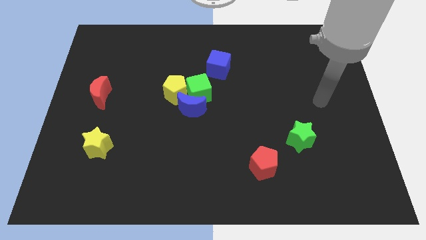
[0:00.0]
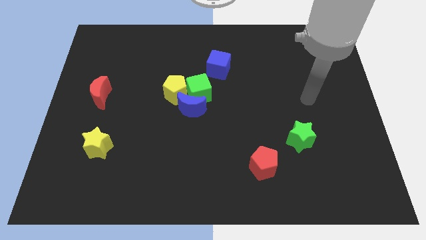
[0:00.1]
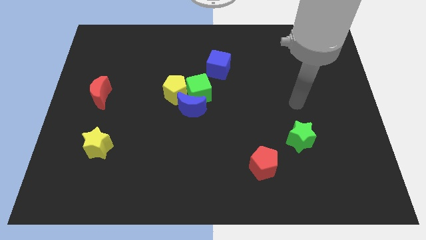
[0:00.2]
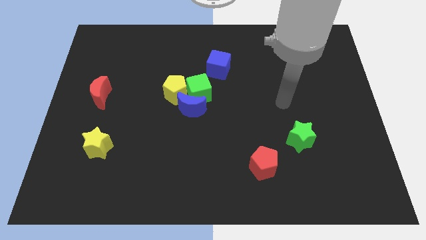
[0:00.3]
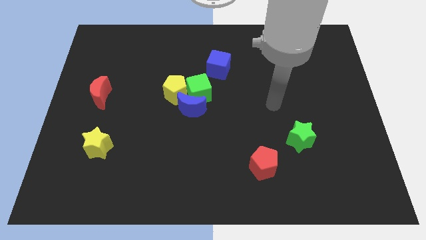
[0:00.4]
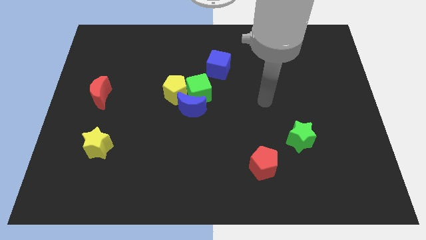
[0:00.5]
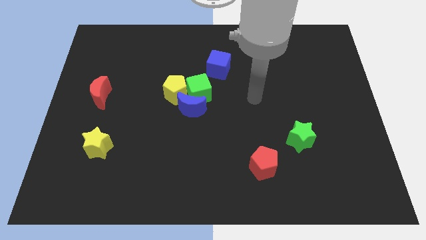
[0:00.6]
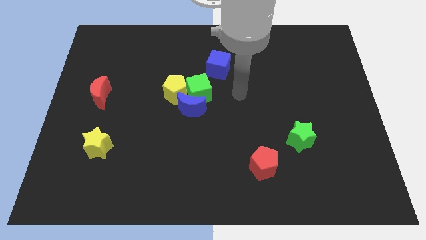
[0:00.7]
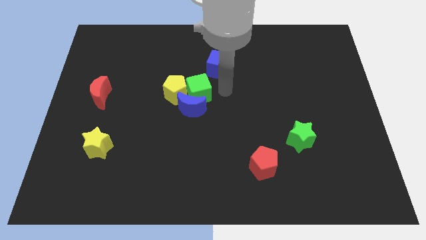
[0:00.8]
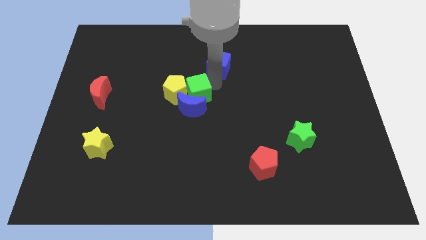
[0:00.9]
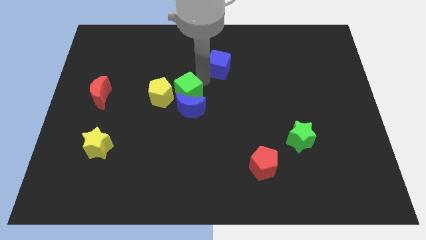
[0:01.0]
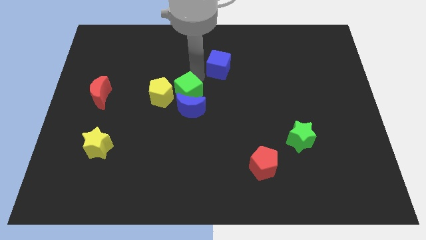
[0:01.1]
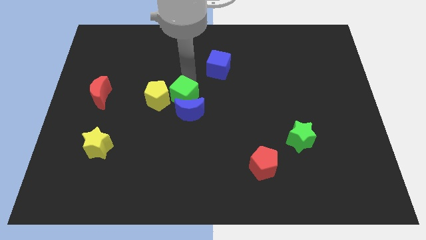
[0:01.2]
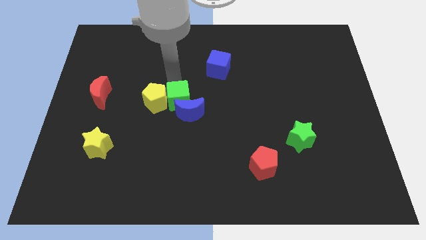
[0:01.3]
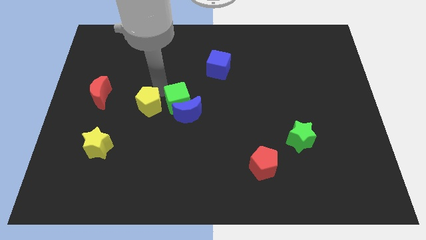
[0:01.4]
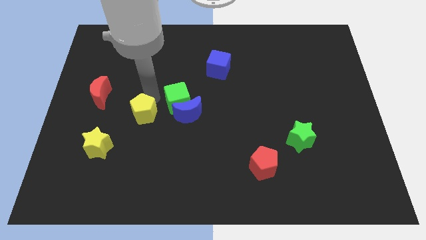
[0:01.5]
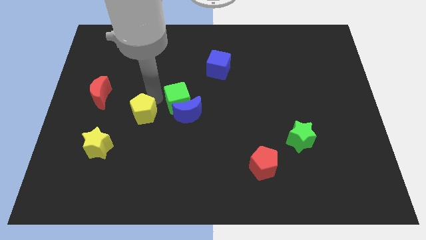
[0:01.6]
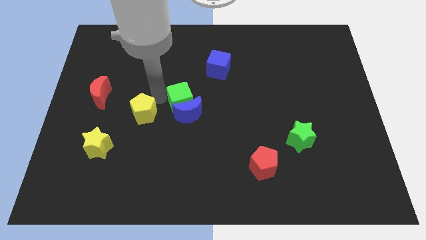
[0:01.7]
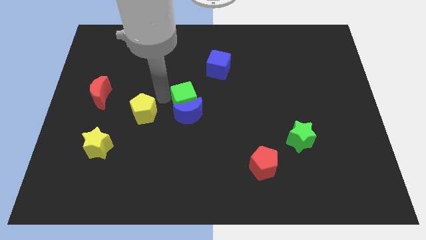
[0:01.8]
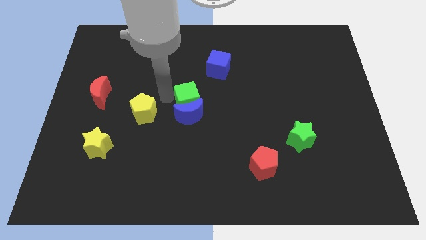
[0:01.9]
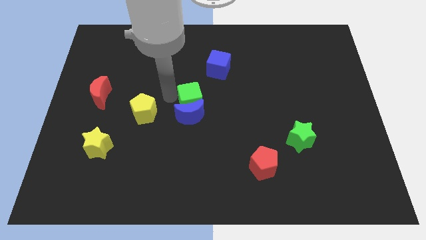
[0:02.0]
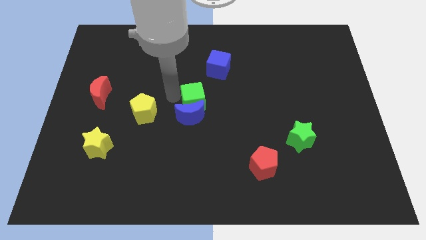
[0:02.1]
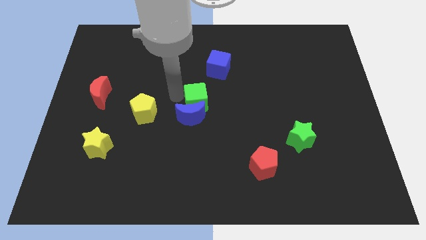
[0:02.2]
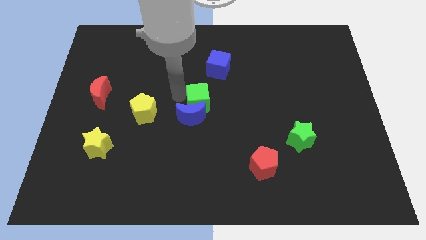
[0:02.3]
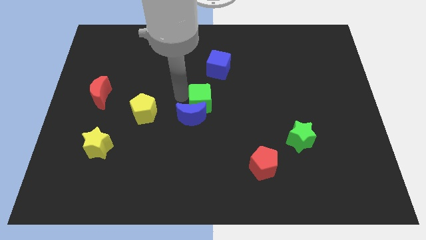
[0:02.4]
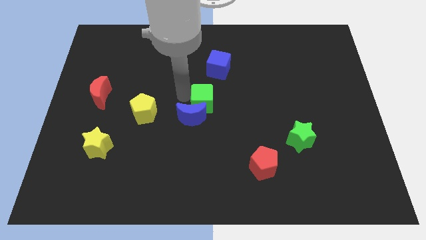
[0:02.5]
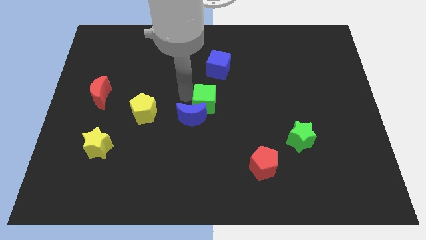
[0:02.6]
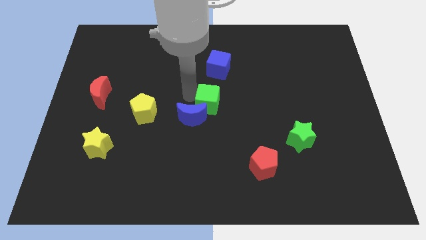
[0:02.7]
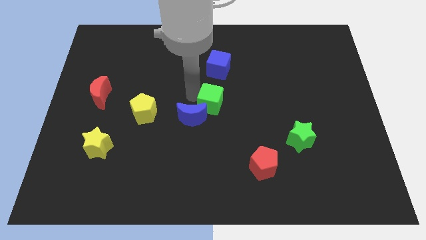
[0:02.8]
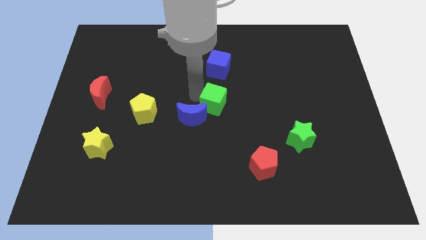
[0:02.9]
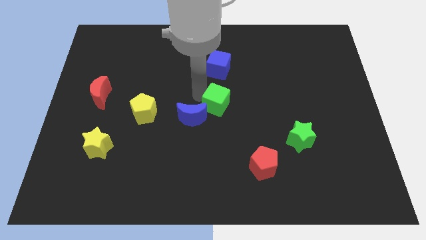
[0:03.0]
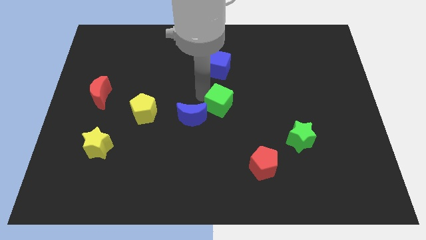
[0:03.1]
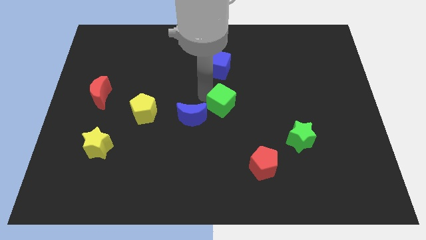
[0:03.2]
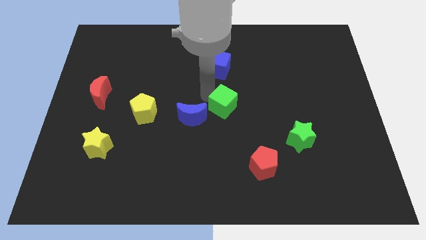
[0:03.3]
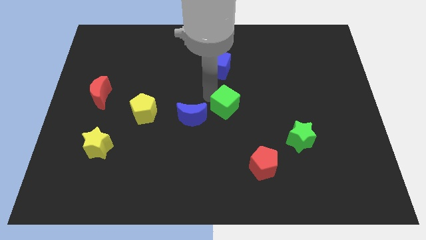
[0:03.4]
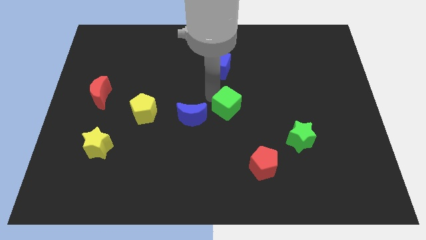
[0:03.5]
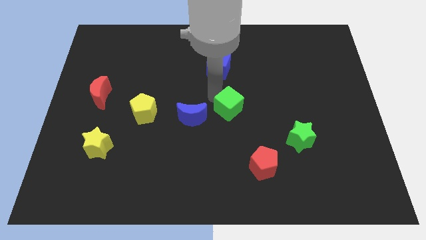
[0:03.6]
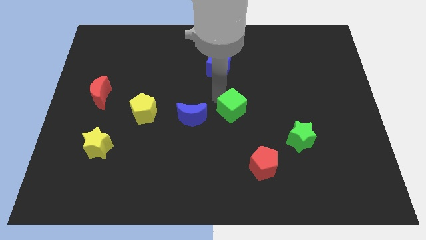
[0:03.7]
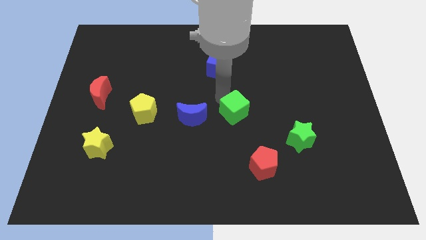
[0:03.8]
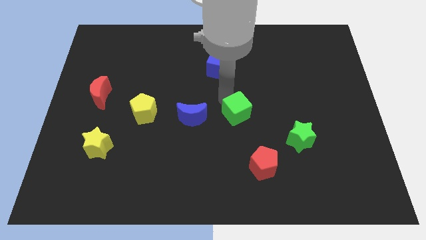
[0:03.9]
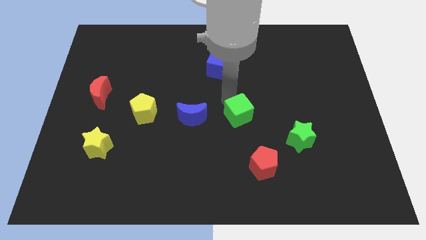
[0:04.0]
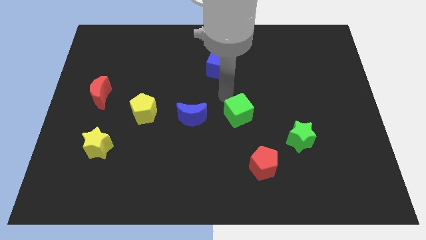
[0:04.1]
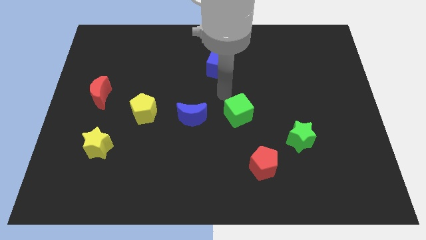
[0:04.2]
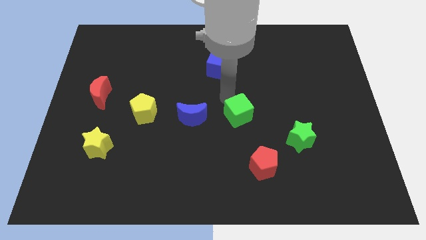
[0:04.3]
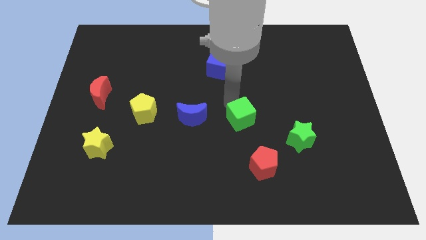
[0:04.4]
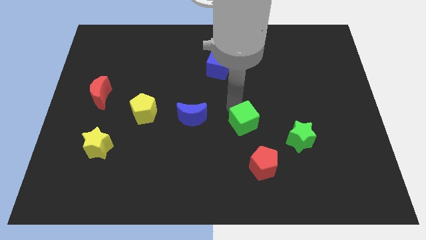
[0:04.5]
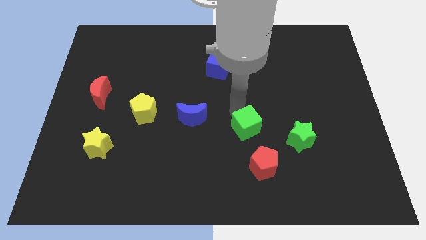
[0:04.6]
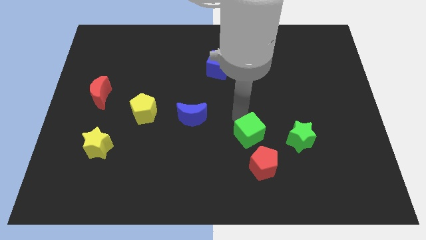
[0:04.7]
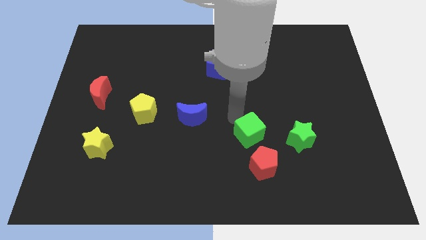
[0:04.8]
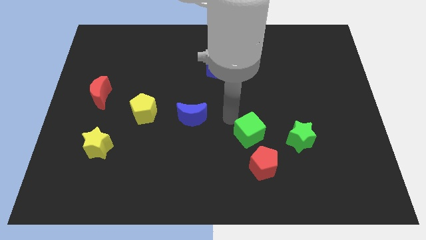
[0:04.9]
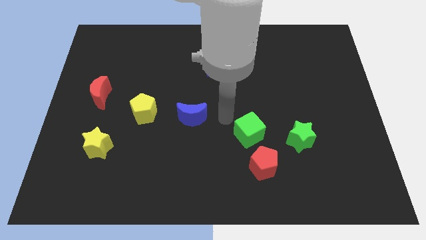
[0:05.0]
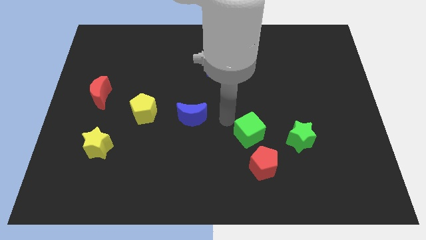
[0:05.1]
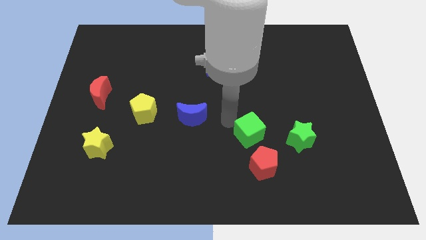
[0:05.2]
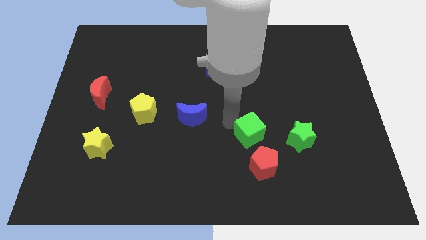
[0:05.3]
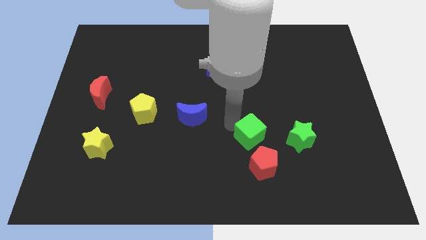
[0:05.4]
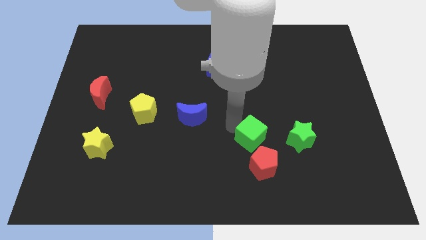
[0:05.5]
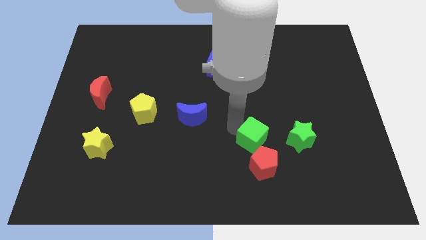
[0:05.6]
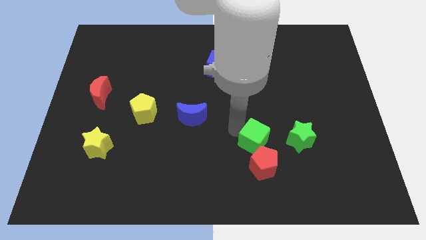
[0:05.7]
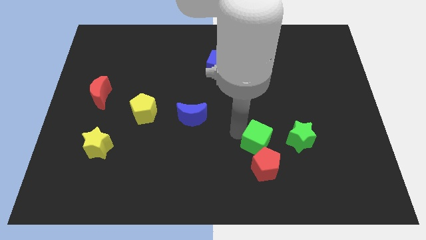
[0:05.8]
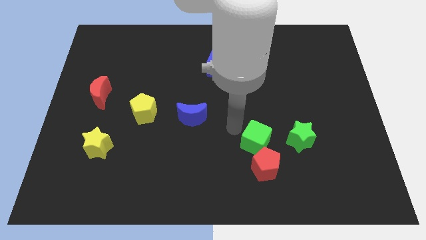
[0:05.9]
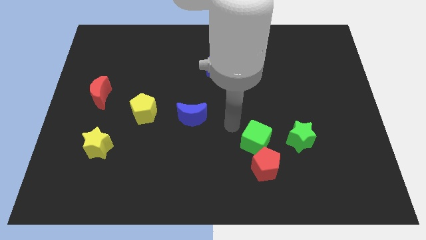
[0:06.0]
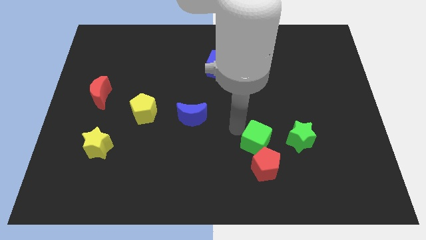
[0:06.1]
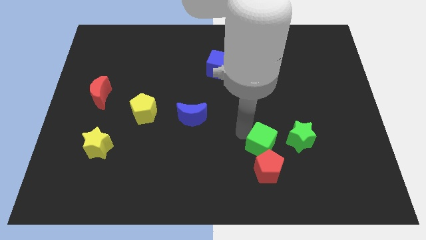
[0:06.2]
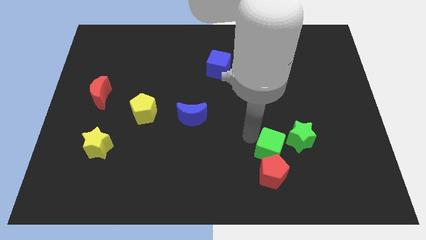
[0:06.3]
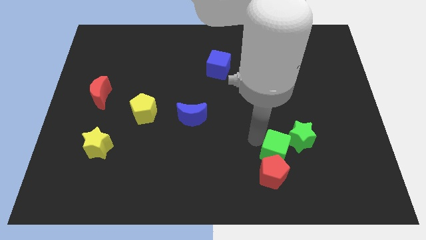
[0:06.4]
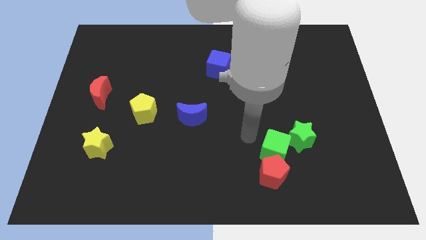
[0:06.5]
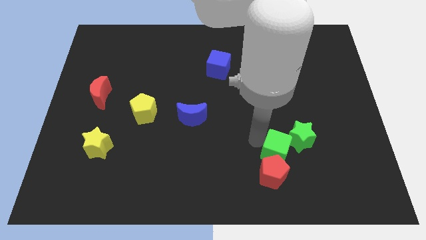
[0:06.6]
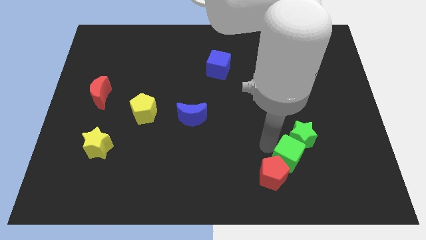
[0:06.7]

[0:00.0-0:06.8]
push the green cube to the right side of the red pentagon
